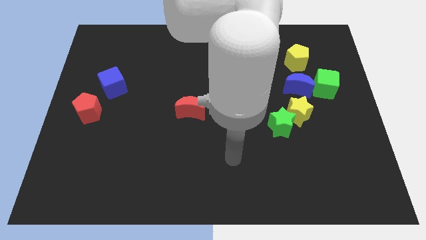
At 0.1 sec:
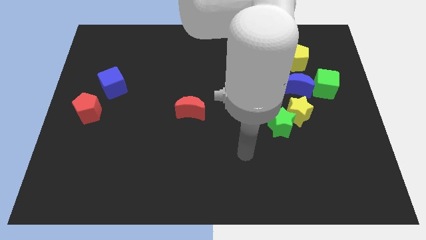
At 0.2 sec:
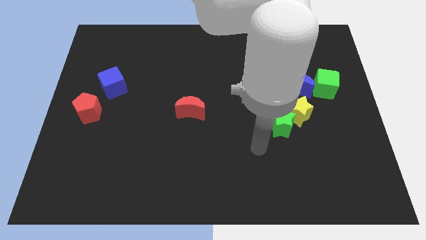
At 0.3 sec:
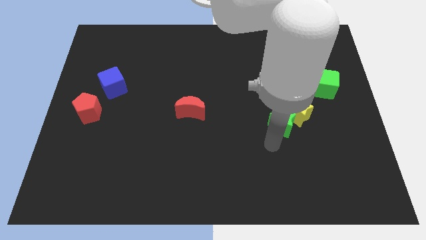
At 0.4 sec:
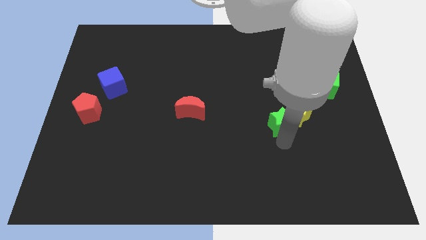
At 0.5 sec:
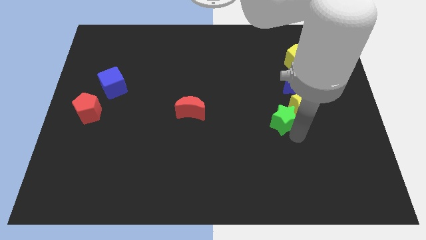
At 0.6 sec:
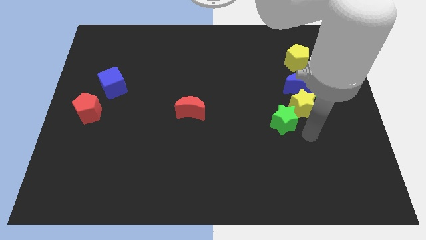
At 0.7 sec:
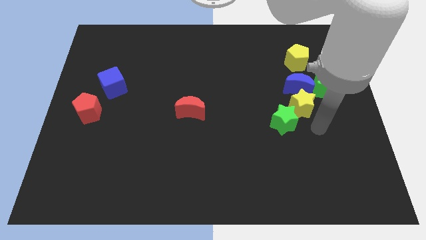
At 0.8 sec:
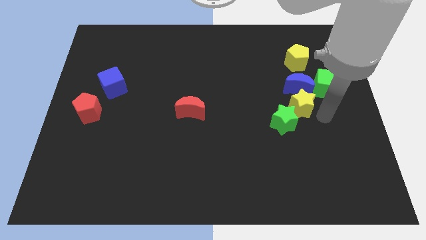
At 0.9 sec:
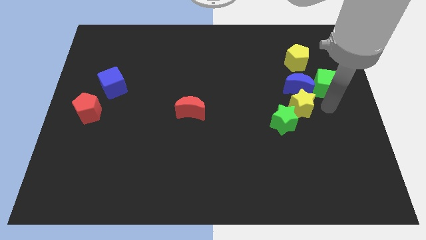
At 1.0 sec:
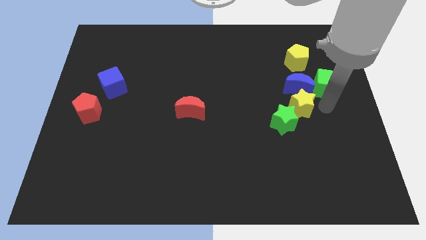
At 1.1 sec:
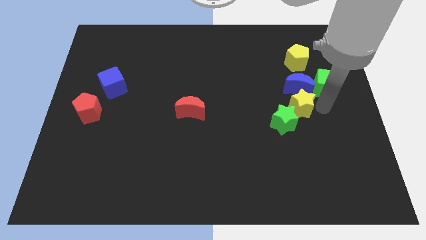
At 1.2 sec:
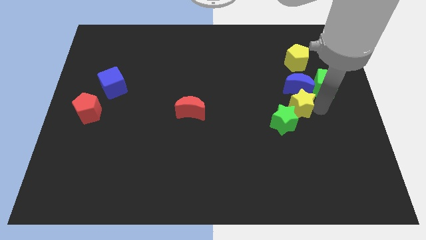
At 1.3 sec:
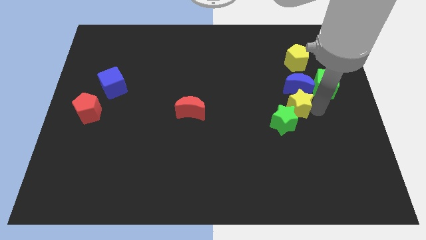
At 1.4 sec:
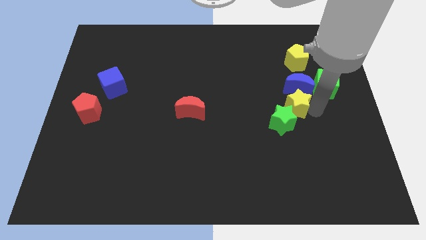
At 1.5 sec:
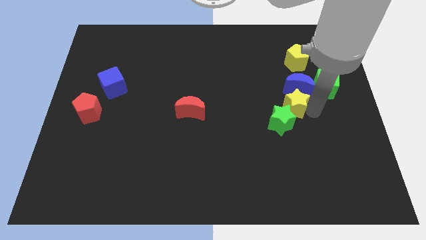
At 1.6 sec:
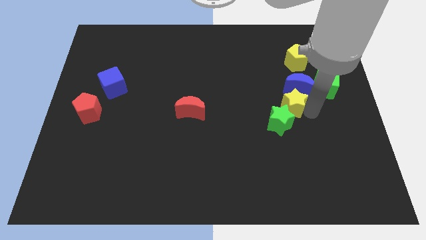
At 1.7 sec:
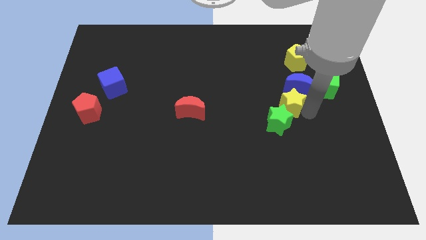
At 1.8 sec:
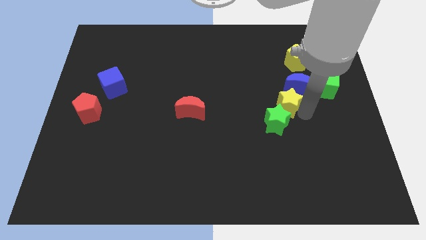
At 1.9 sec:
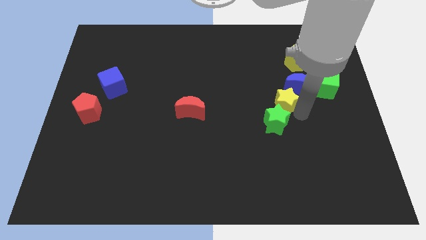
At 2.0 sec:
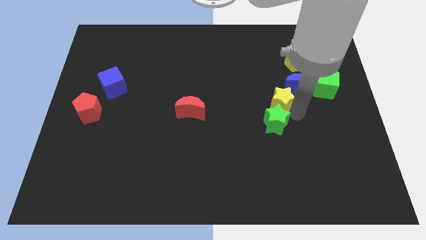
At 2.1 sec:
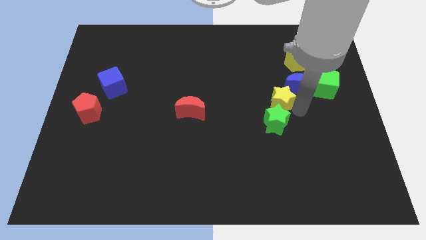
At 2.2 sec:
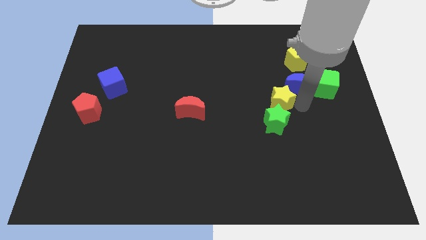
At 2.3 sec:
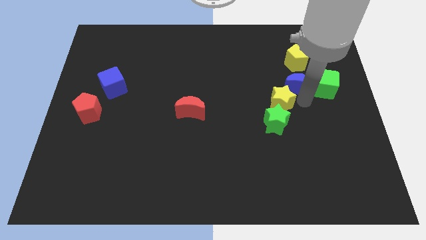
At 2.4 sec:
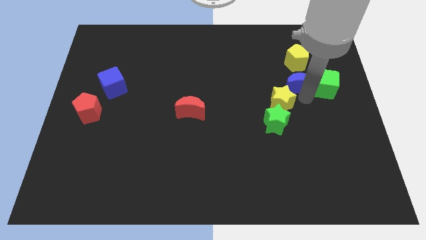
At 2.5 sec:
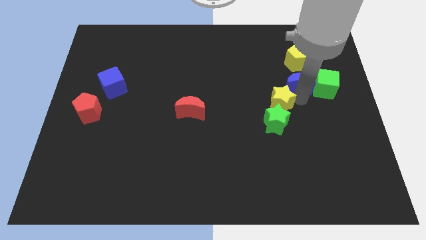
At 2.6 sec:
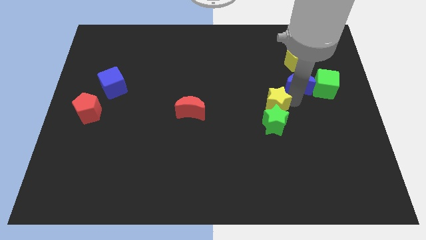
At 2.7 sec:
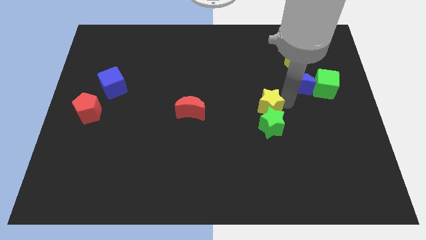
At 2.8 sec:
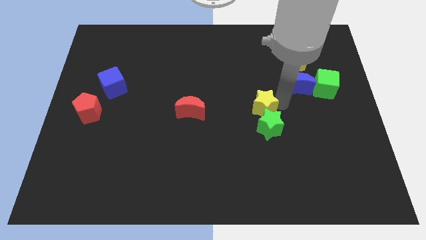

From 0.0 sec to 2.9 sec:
push the yellow star left somewhat

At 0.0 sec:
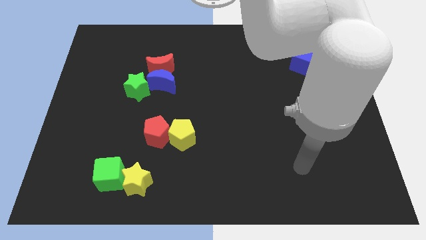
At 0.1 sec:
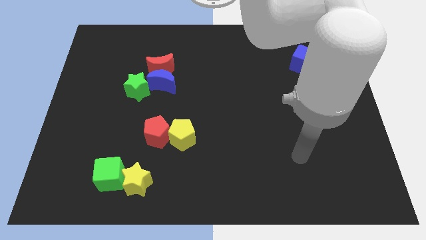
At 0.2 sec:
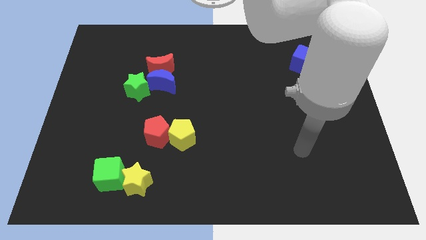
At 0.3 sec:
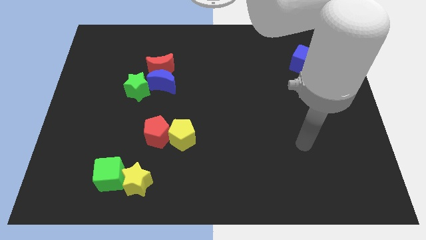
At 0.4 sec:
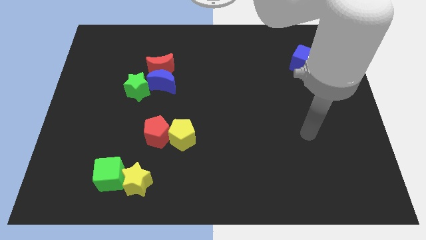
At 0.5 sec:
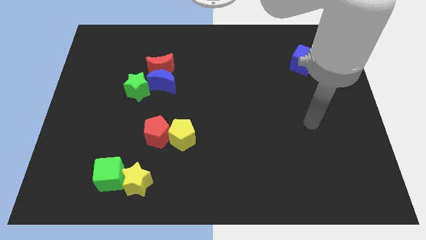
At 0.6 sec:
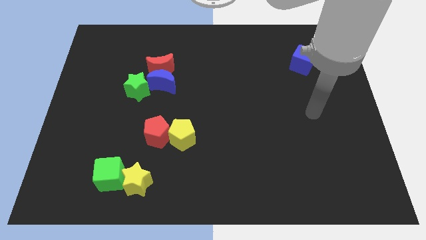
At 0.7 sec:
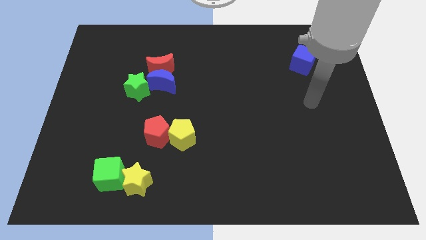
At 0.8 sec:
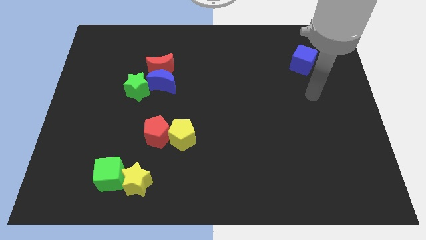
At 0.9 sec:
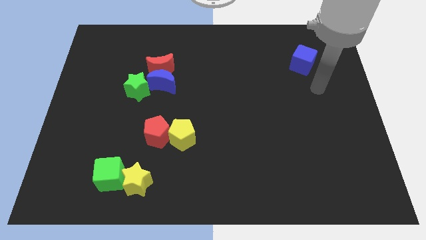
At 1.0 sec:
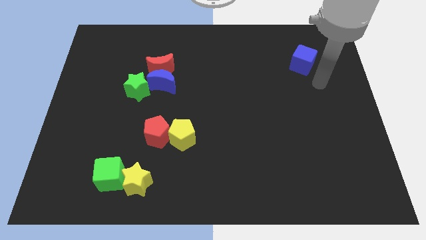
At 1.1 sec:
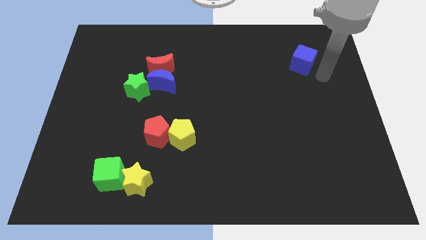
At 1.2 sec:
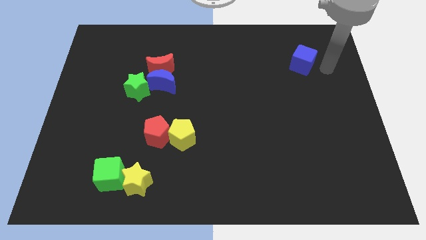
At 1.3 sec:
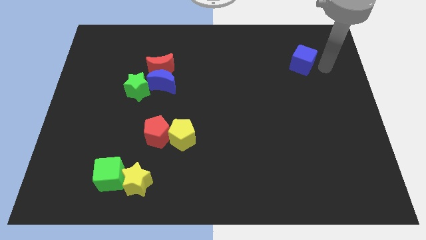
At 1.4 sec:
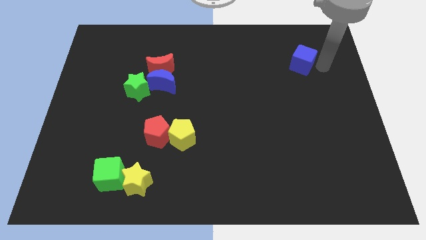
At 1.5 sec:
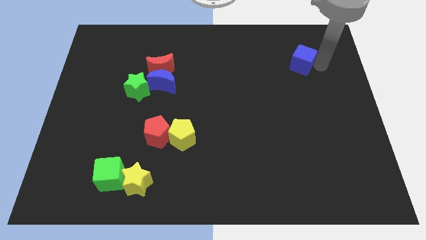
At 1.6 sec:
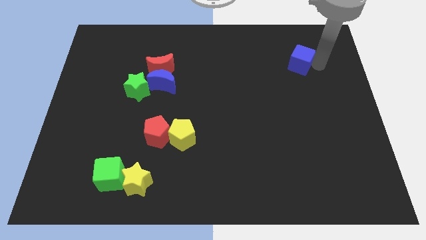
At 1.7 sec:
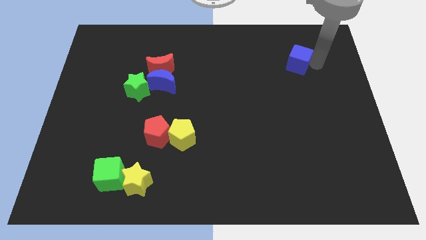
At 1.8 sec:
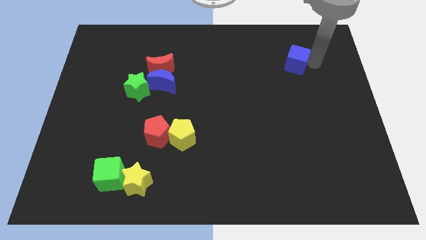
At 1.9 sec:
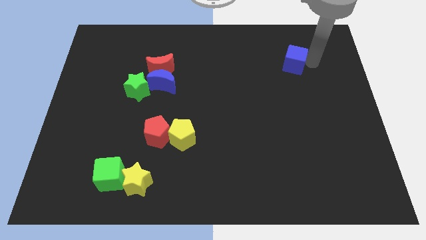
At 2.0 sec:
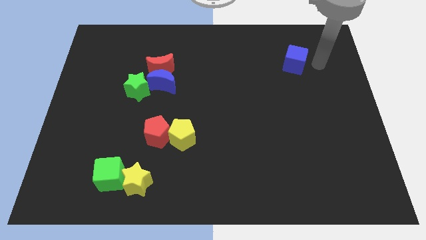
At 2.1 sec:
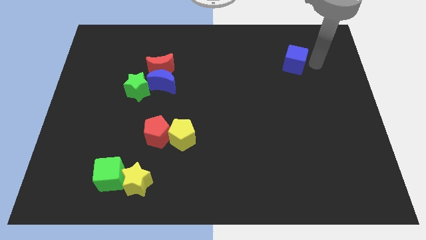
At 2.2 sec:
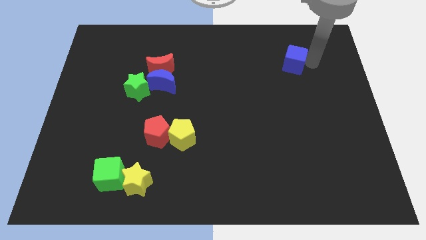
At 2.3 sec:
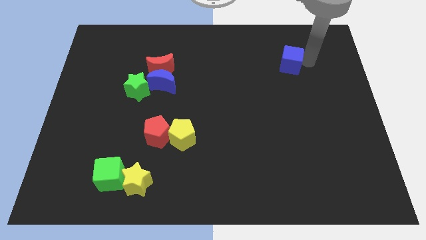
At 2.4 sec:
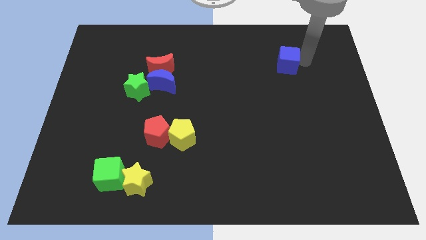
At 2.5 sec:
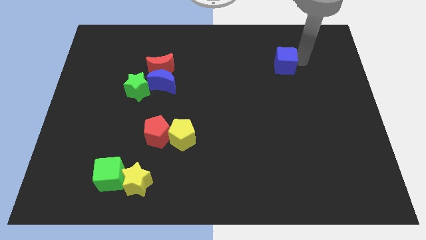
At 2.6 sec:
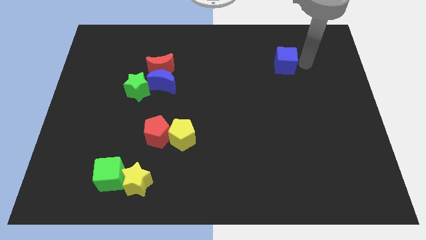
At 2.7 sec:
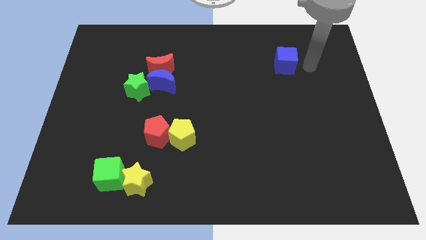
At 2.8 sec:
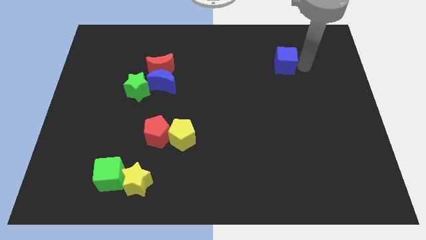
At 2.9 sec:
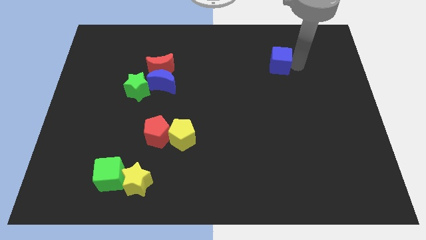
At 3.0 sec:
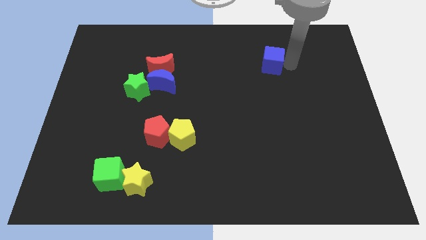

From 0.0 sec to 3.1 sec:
push the blue cube a little bit left

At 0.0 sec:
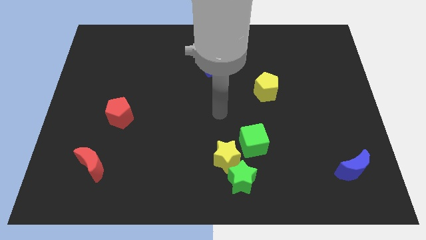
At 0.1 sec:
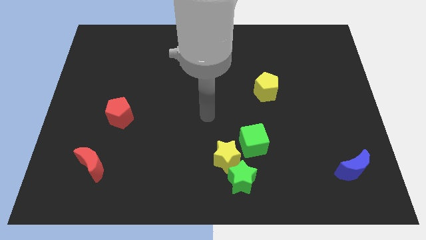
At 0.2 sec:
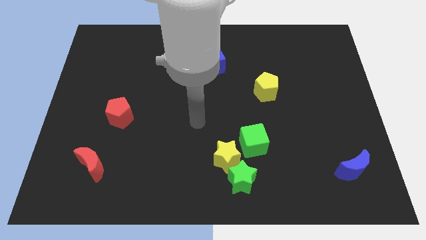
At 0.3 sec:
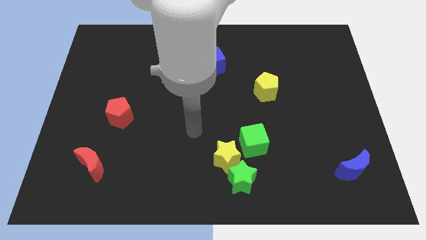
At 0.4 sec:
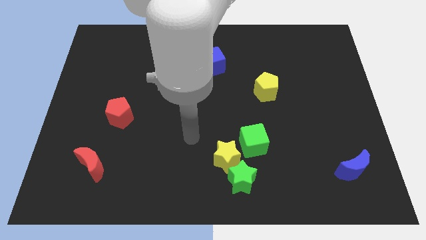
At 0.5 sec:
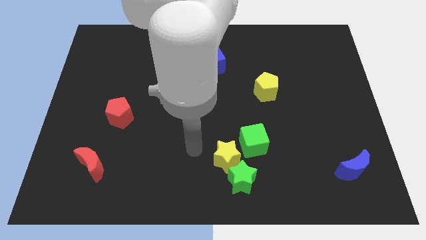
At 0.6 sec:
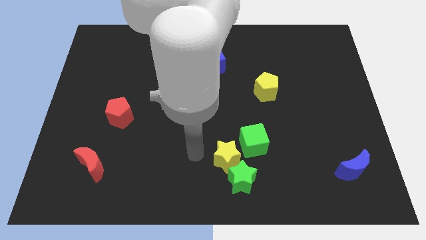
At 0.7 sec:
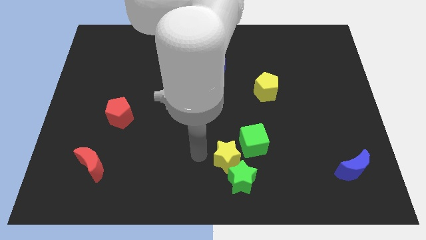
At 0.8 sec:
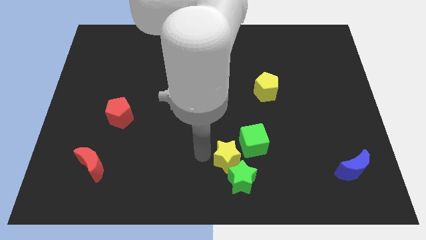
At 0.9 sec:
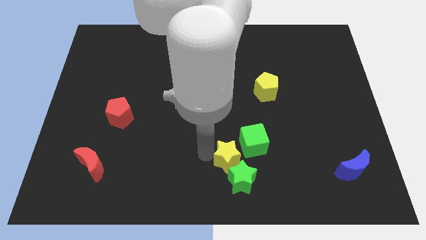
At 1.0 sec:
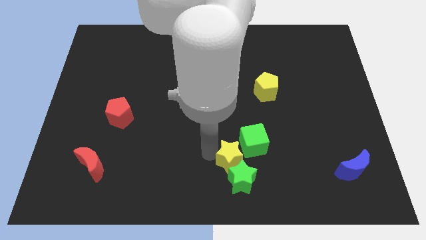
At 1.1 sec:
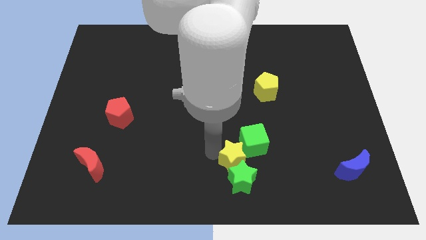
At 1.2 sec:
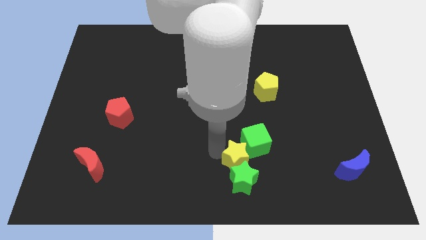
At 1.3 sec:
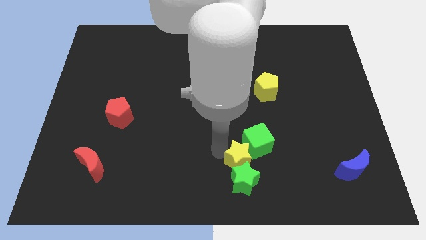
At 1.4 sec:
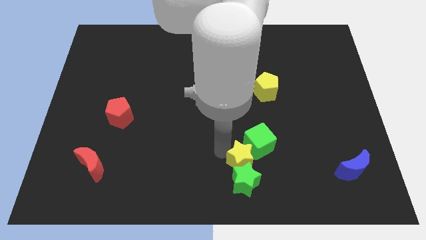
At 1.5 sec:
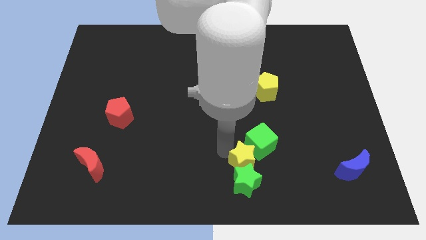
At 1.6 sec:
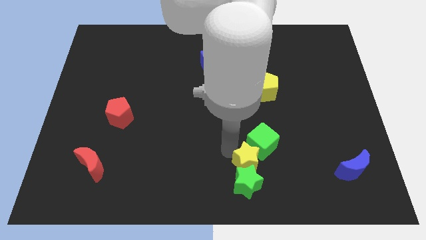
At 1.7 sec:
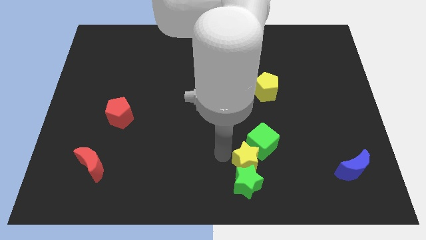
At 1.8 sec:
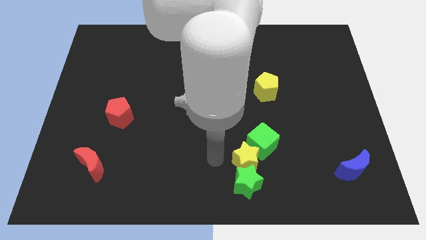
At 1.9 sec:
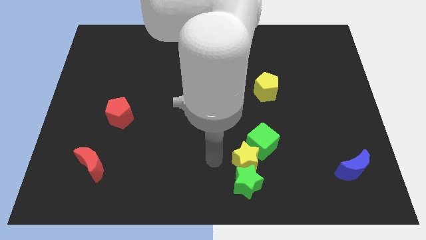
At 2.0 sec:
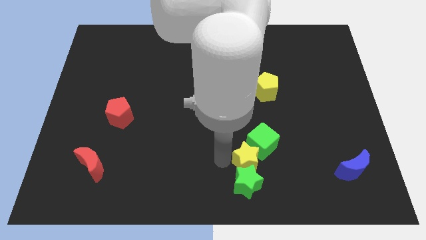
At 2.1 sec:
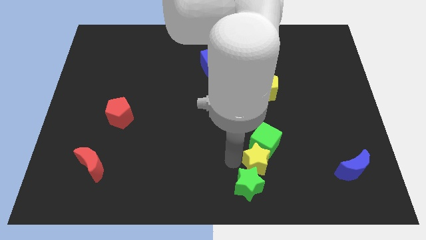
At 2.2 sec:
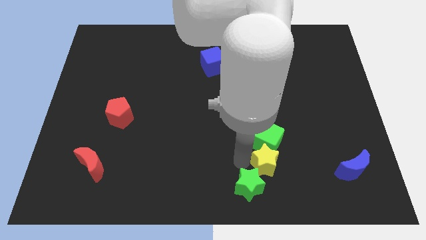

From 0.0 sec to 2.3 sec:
move the yellow star to the right somewhat
